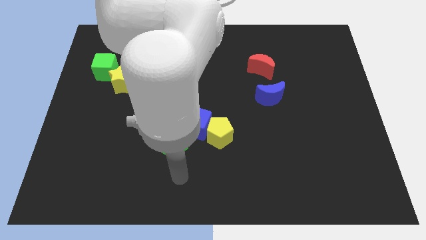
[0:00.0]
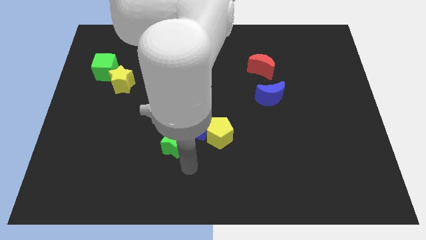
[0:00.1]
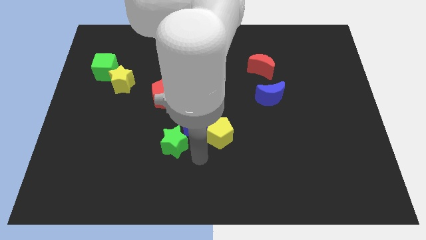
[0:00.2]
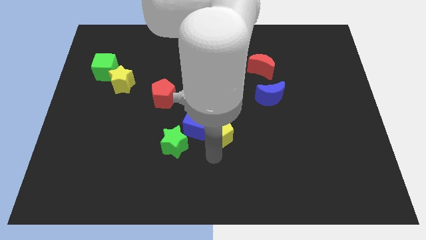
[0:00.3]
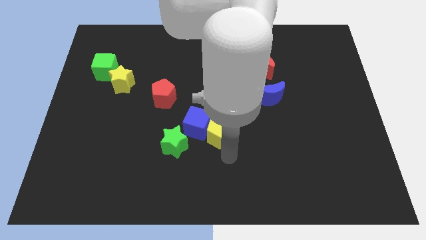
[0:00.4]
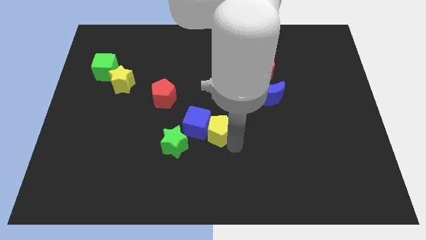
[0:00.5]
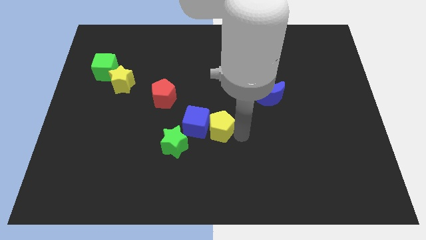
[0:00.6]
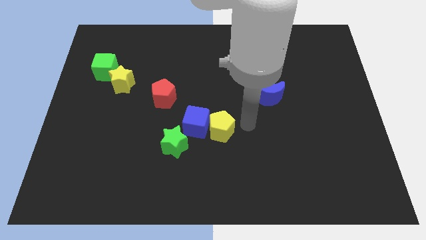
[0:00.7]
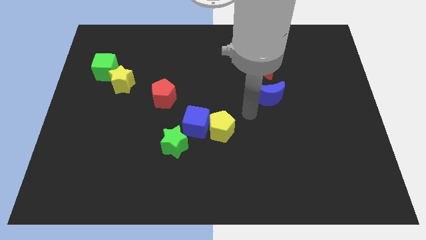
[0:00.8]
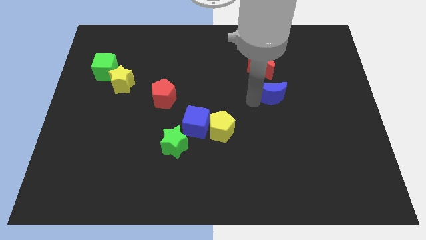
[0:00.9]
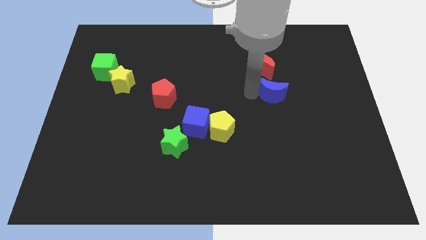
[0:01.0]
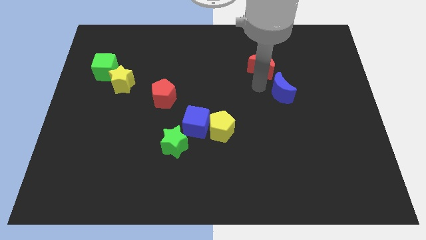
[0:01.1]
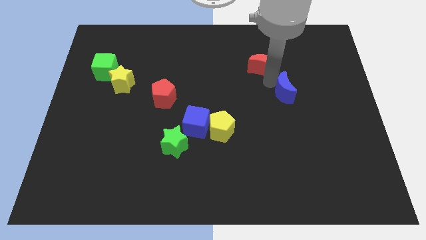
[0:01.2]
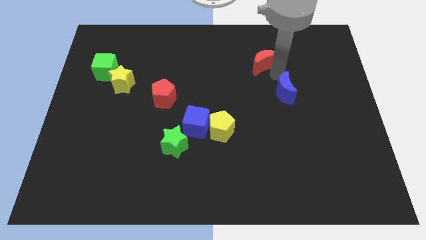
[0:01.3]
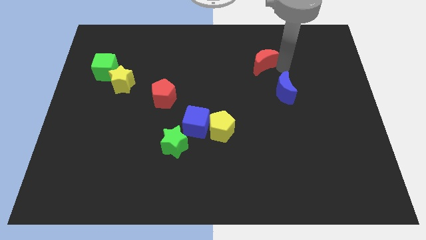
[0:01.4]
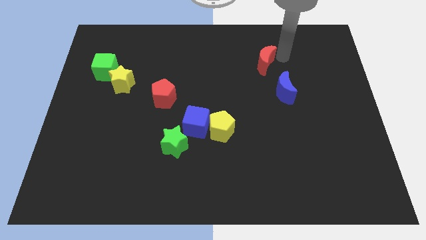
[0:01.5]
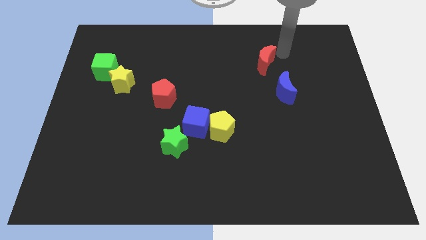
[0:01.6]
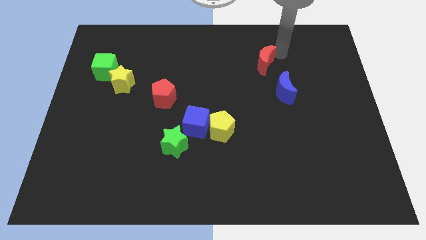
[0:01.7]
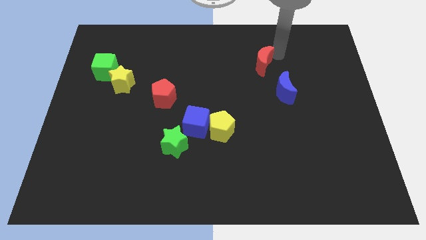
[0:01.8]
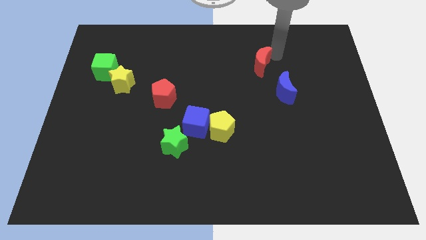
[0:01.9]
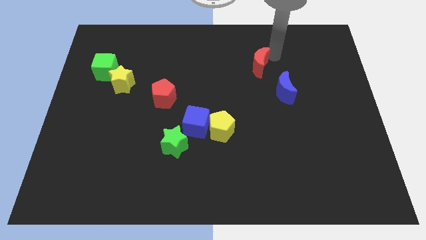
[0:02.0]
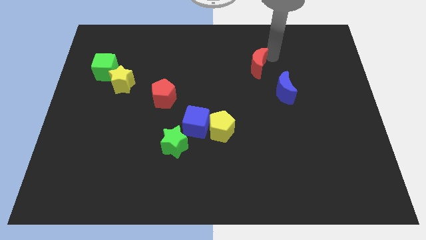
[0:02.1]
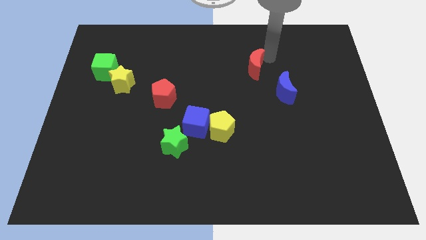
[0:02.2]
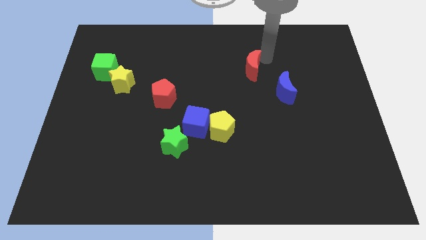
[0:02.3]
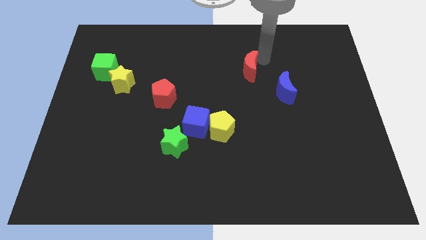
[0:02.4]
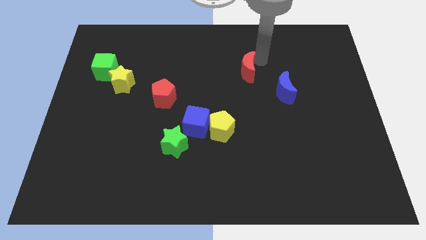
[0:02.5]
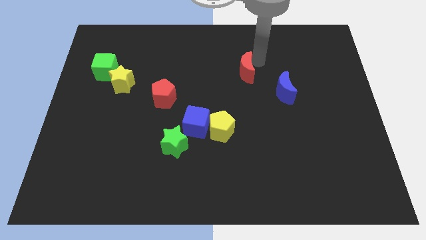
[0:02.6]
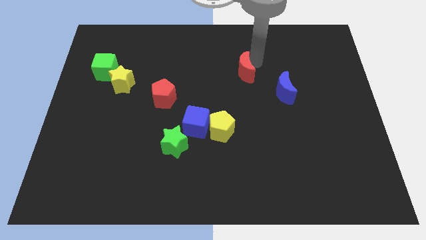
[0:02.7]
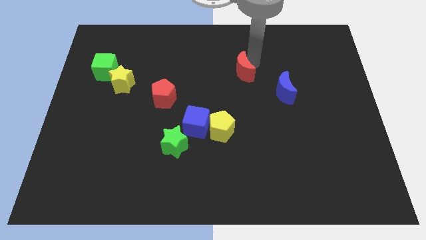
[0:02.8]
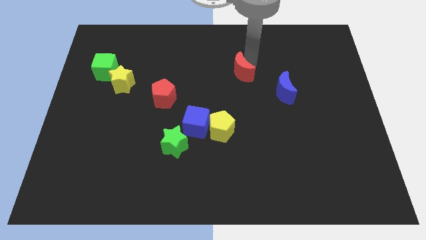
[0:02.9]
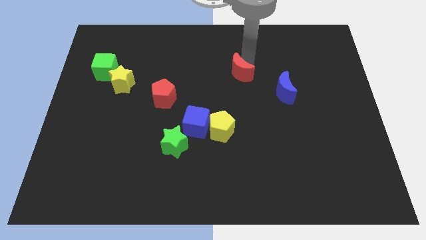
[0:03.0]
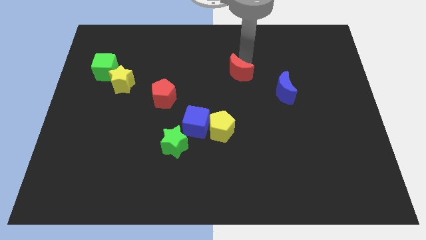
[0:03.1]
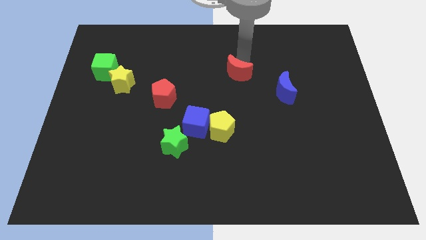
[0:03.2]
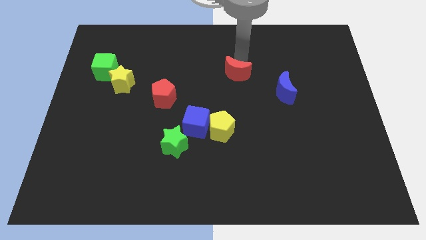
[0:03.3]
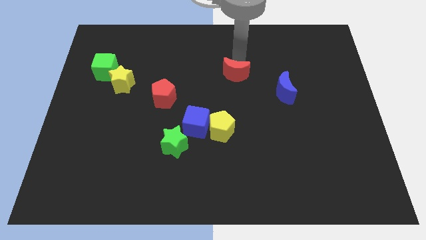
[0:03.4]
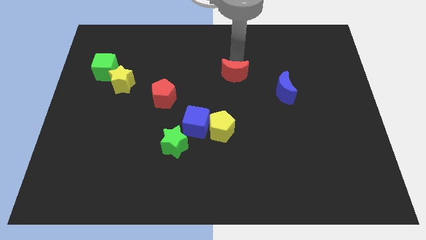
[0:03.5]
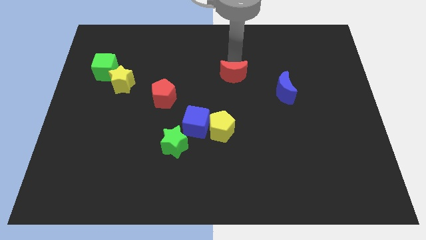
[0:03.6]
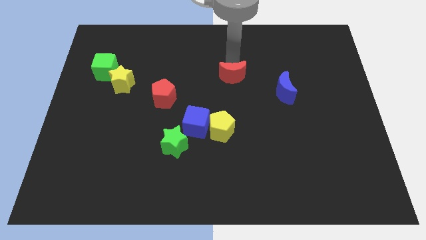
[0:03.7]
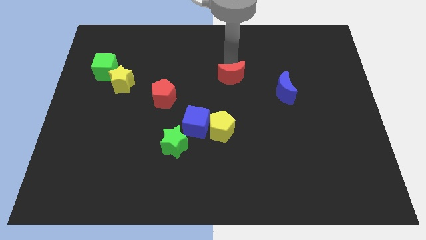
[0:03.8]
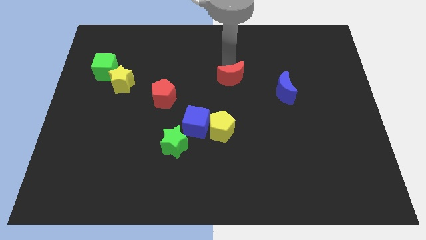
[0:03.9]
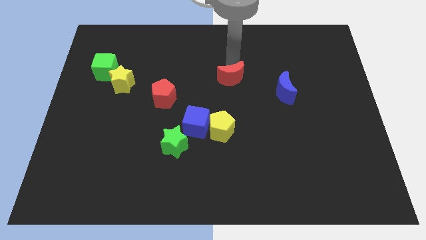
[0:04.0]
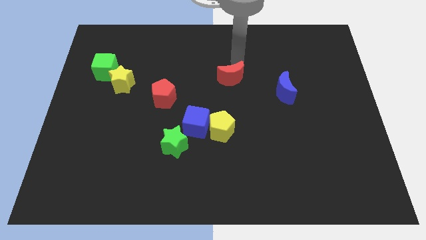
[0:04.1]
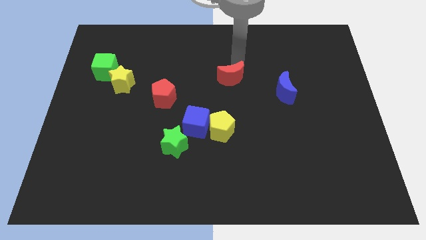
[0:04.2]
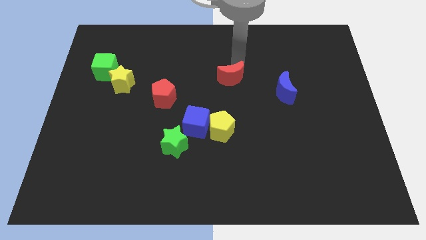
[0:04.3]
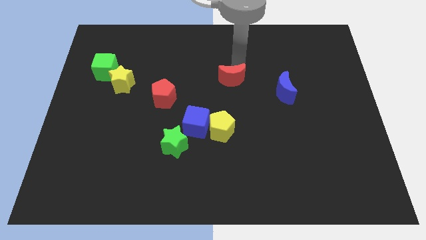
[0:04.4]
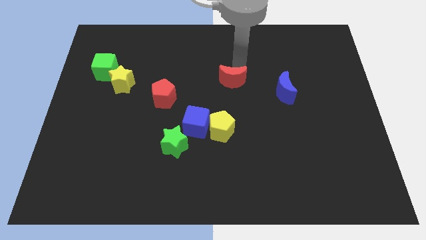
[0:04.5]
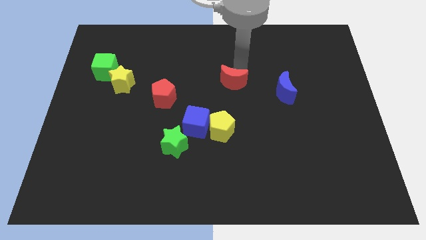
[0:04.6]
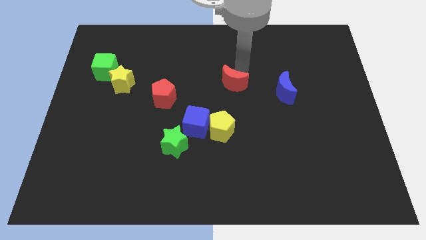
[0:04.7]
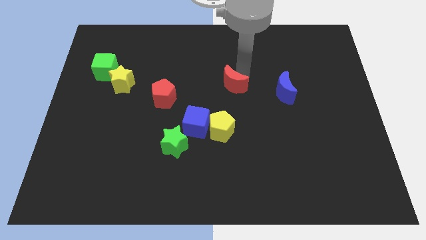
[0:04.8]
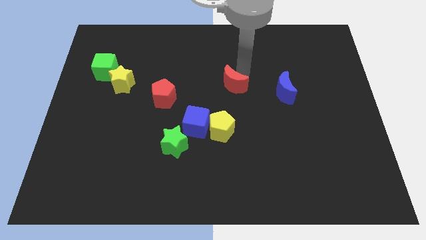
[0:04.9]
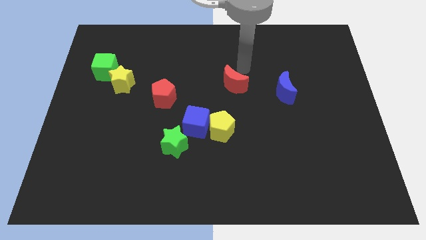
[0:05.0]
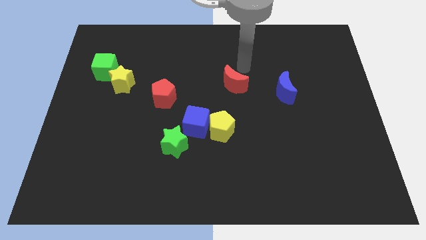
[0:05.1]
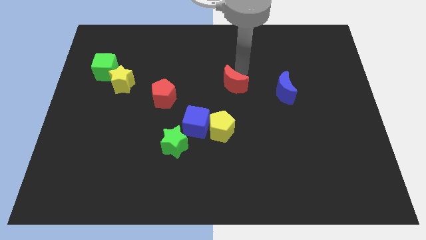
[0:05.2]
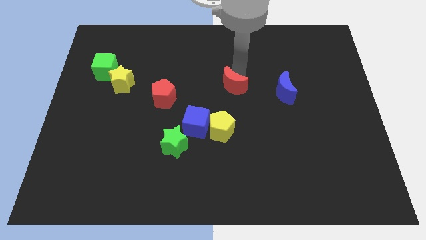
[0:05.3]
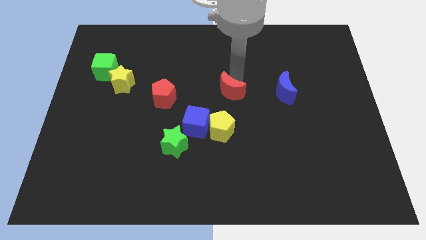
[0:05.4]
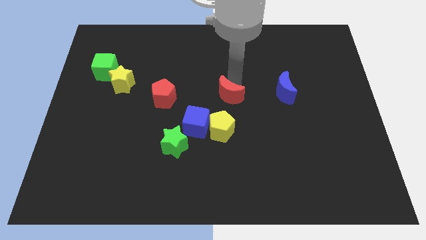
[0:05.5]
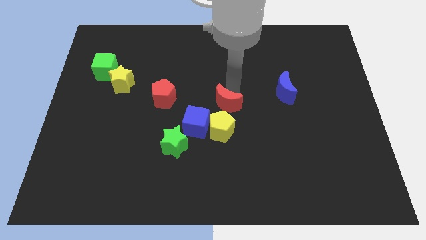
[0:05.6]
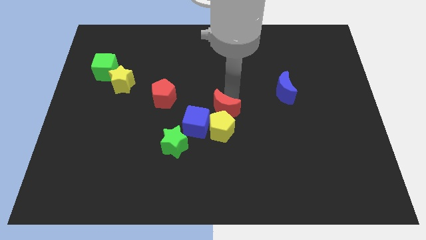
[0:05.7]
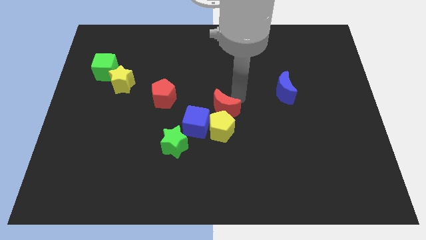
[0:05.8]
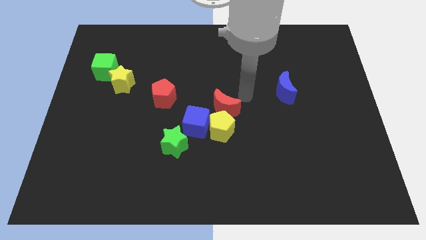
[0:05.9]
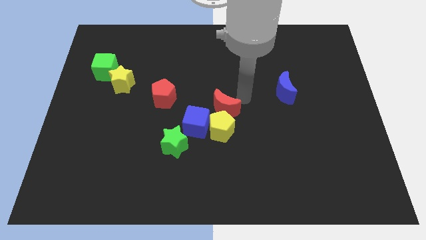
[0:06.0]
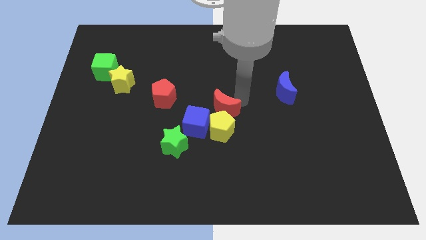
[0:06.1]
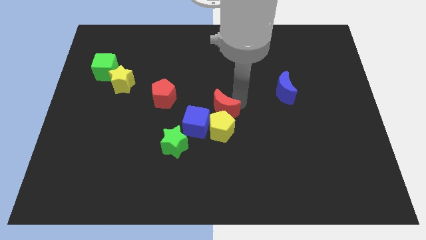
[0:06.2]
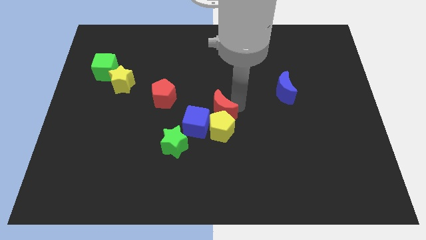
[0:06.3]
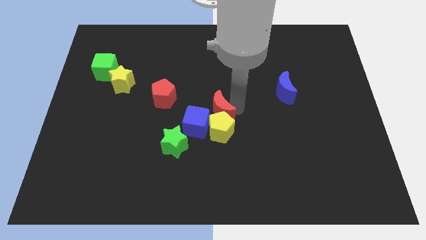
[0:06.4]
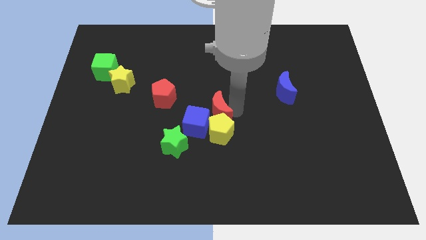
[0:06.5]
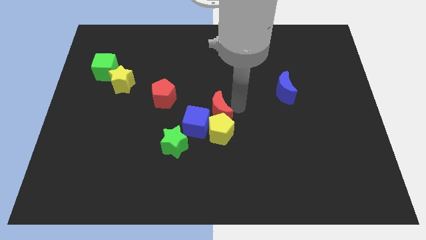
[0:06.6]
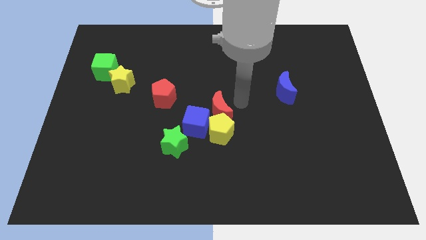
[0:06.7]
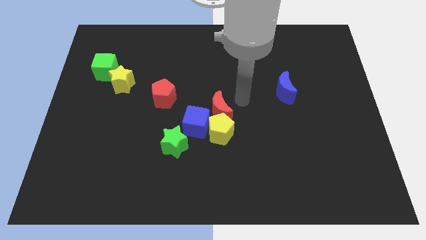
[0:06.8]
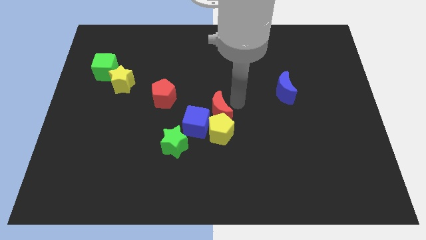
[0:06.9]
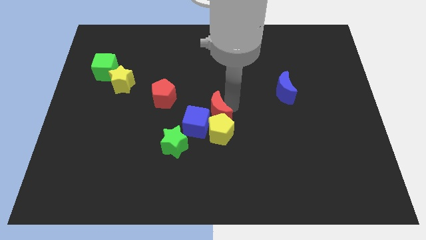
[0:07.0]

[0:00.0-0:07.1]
move the red moon next to the blue cube
